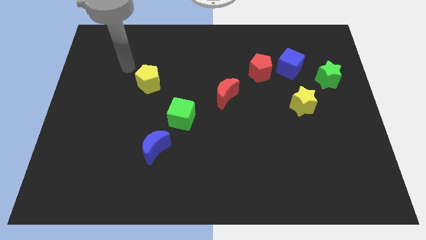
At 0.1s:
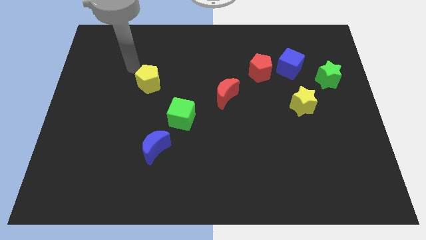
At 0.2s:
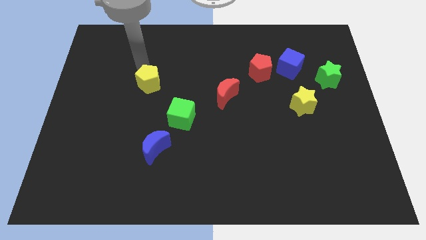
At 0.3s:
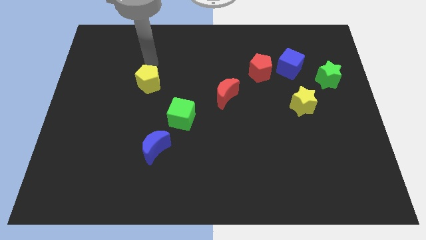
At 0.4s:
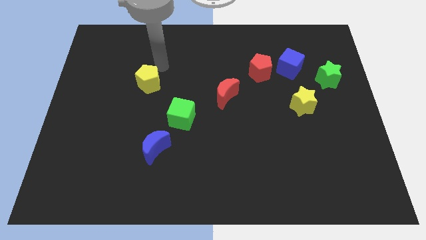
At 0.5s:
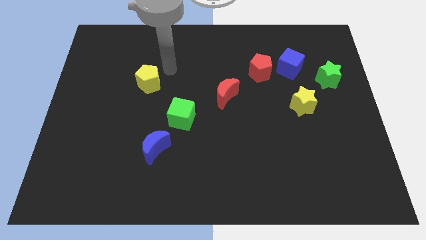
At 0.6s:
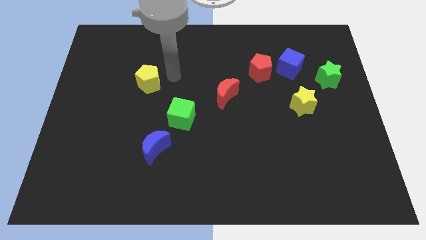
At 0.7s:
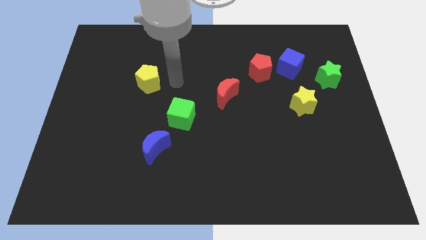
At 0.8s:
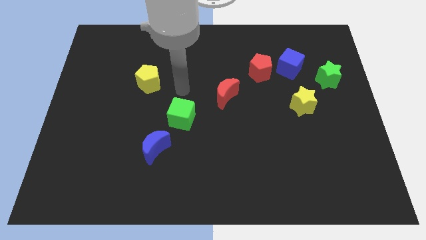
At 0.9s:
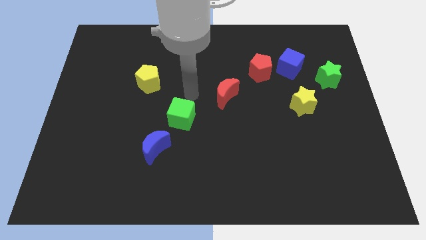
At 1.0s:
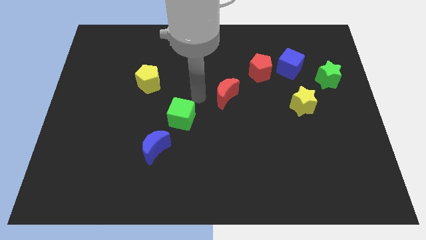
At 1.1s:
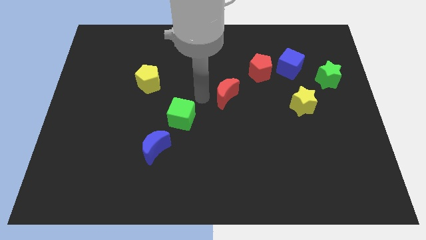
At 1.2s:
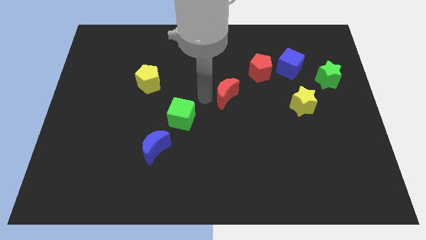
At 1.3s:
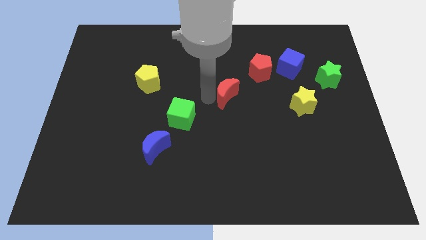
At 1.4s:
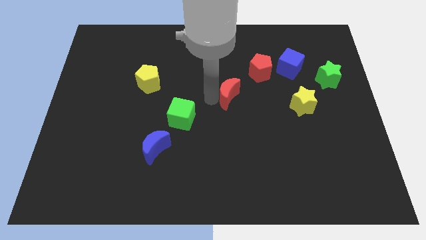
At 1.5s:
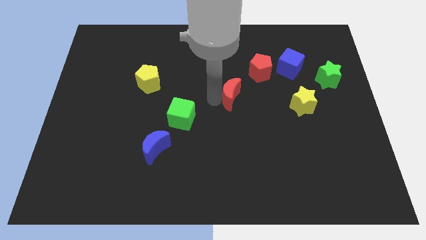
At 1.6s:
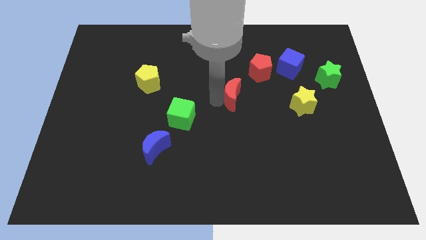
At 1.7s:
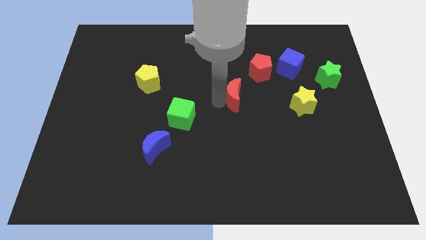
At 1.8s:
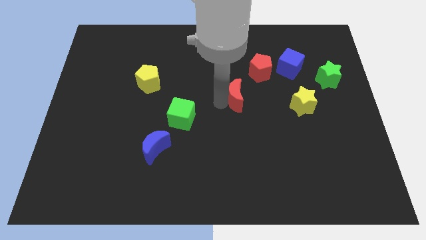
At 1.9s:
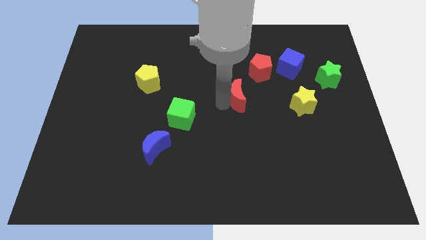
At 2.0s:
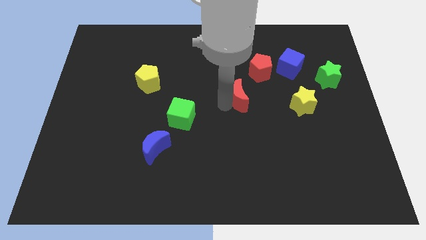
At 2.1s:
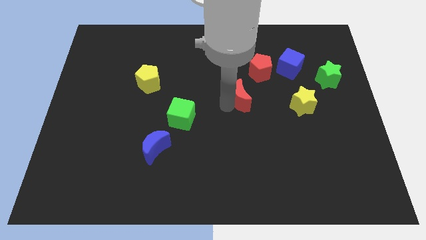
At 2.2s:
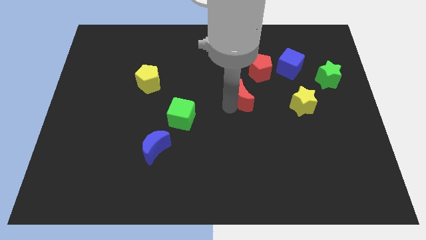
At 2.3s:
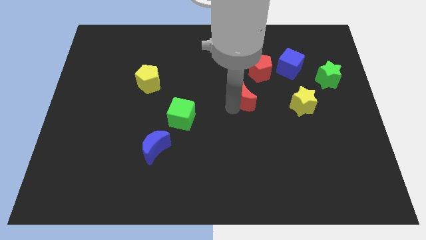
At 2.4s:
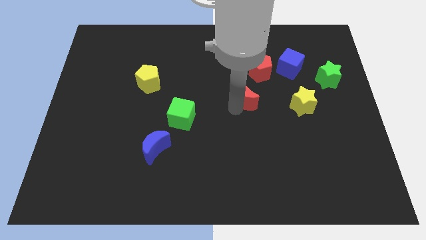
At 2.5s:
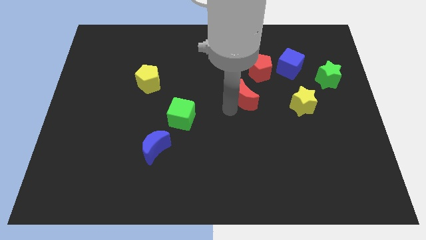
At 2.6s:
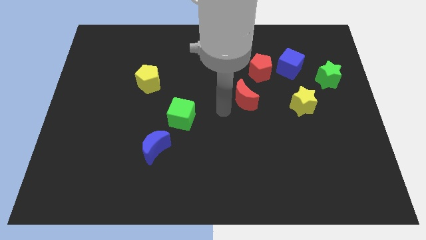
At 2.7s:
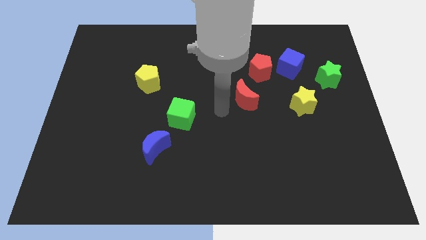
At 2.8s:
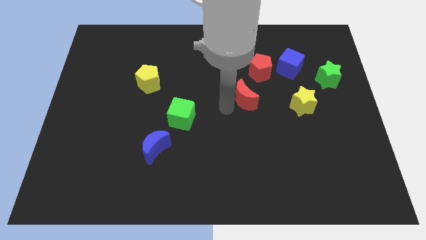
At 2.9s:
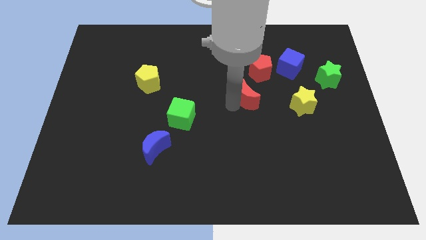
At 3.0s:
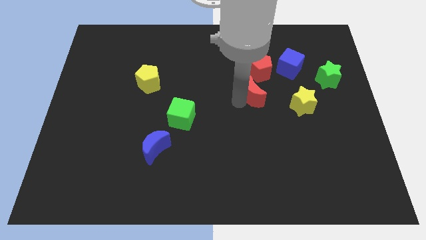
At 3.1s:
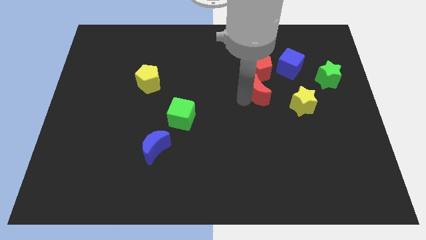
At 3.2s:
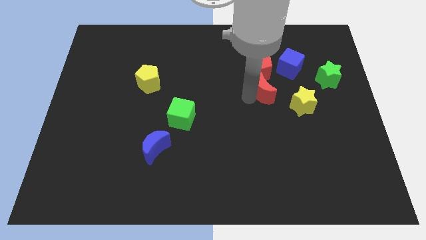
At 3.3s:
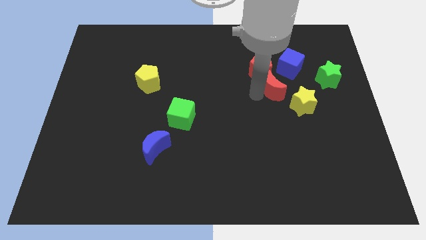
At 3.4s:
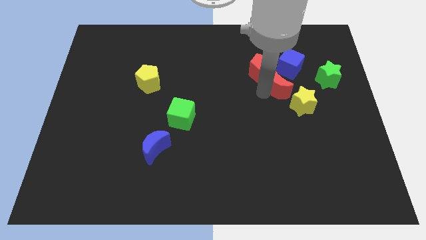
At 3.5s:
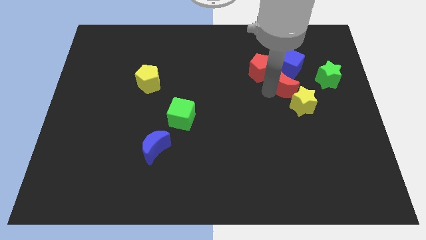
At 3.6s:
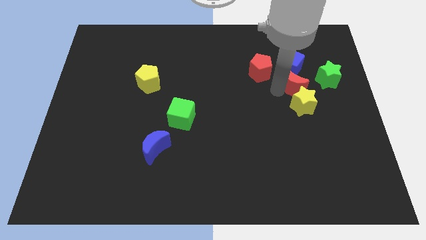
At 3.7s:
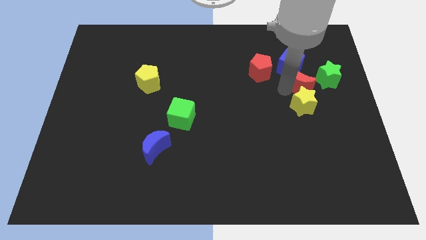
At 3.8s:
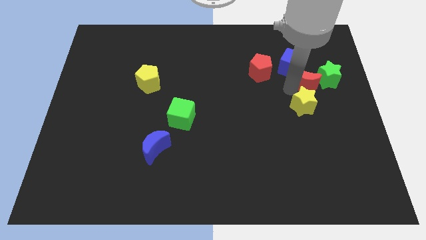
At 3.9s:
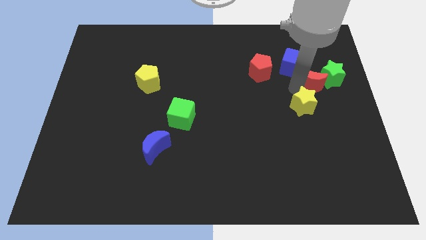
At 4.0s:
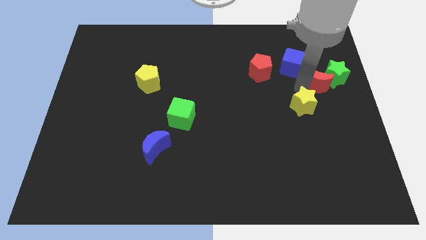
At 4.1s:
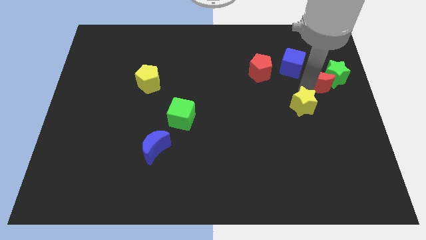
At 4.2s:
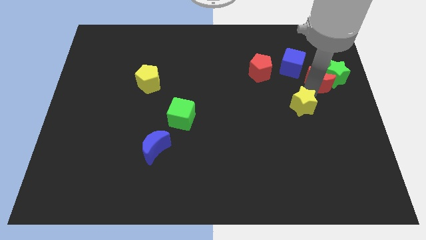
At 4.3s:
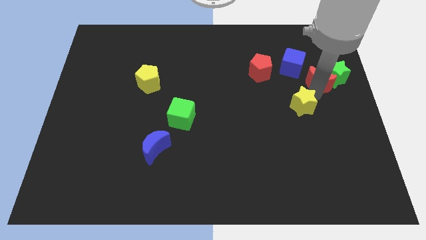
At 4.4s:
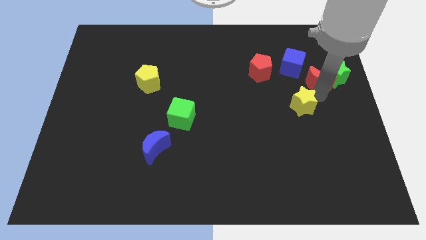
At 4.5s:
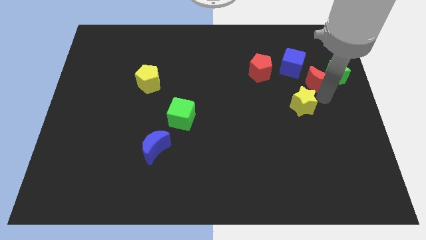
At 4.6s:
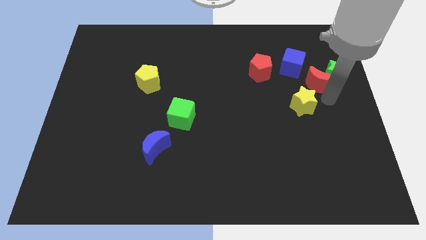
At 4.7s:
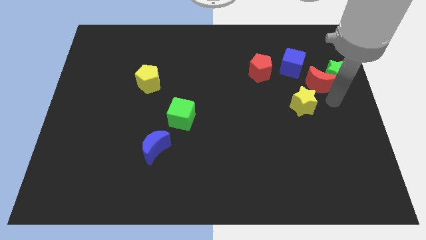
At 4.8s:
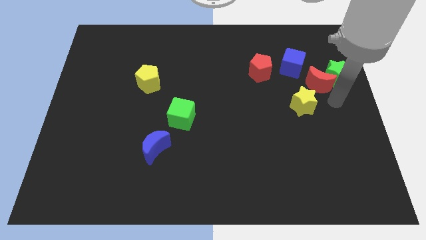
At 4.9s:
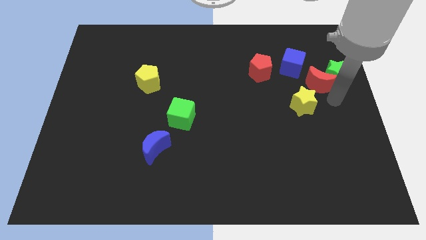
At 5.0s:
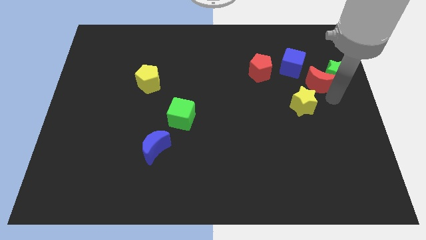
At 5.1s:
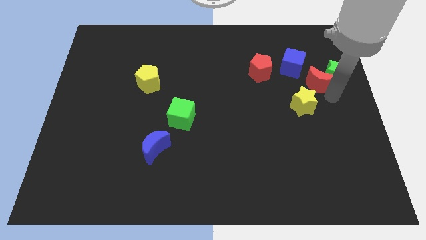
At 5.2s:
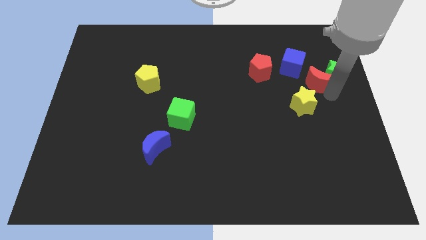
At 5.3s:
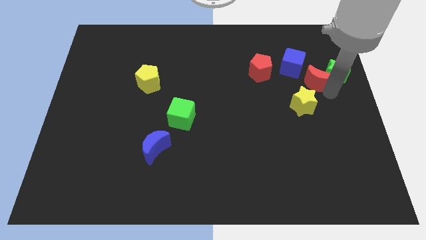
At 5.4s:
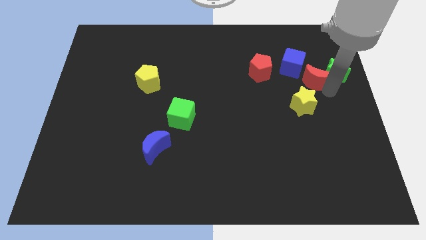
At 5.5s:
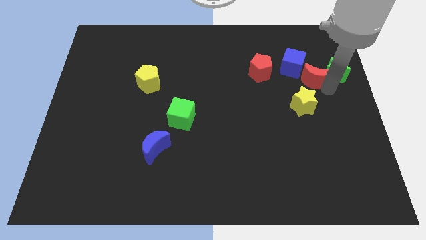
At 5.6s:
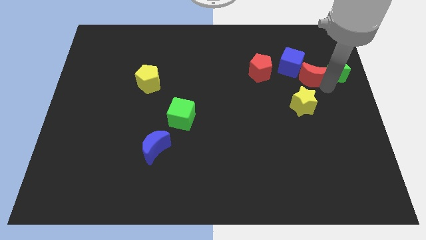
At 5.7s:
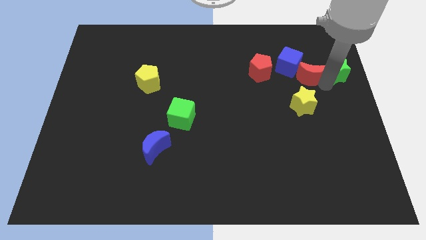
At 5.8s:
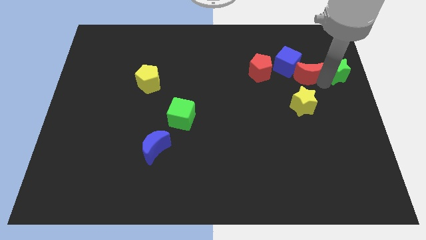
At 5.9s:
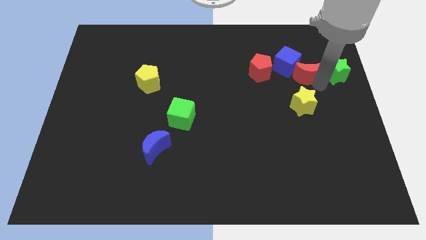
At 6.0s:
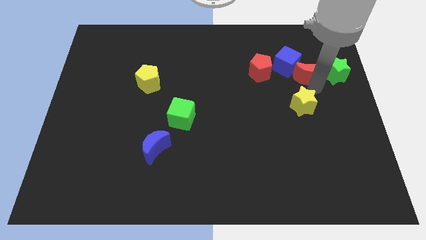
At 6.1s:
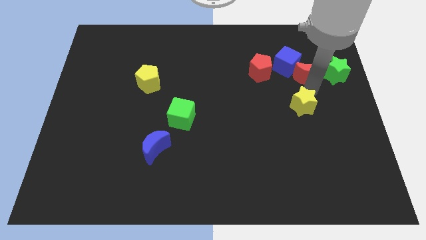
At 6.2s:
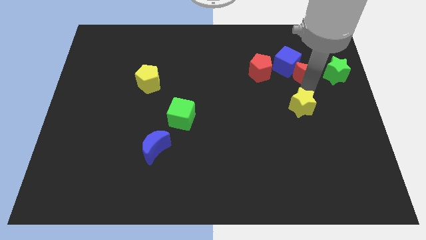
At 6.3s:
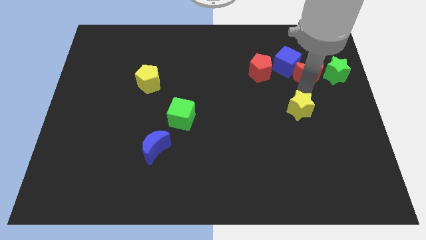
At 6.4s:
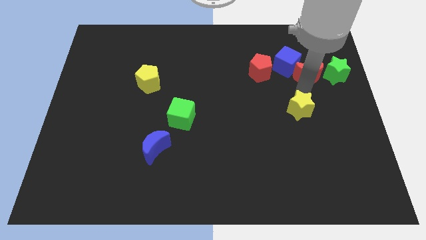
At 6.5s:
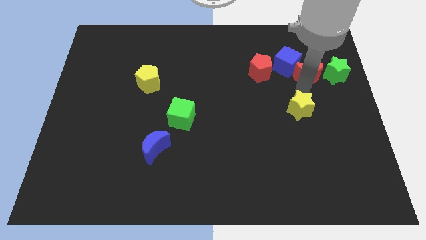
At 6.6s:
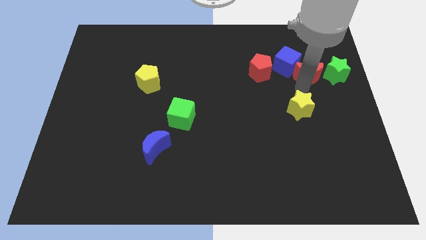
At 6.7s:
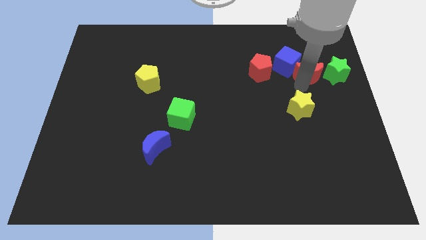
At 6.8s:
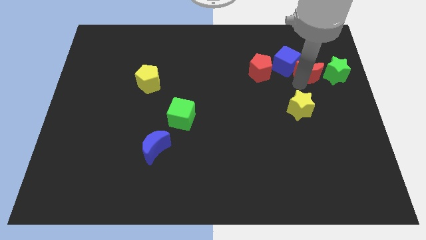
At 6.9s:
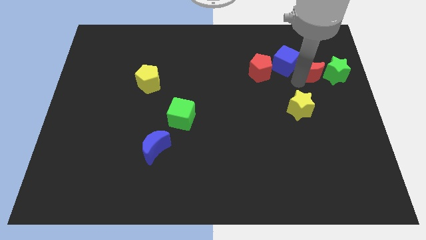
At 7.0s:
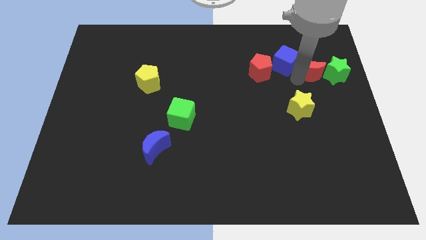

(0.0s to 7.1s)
push the red moon to the top left of the green star

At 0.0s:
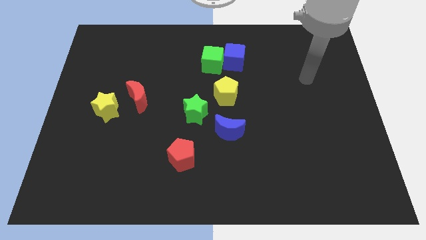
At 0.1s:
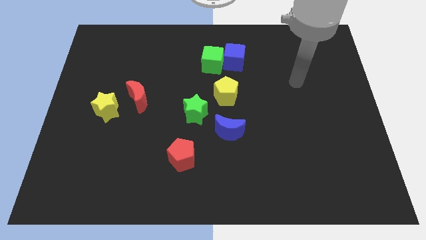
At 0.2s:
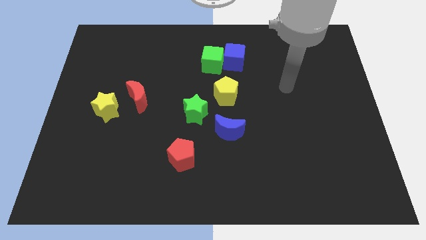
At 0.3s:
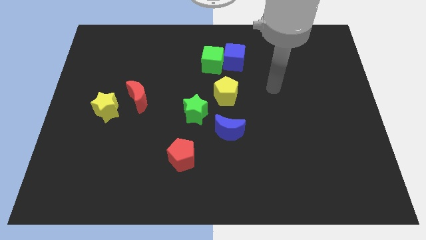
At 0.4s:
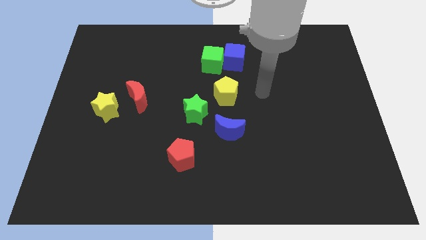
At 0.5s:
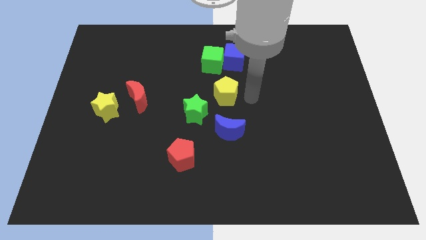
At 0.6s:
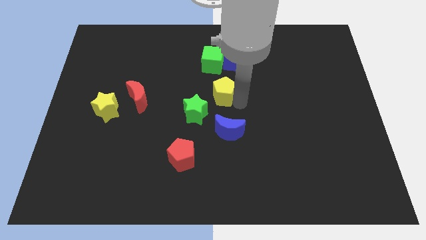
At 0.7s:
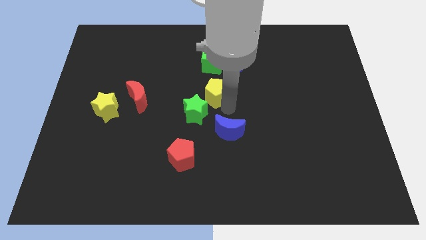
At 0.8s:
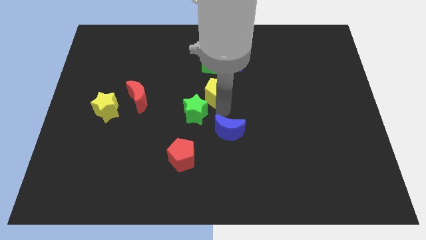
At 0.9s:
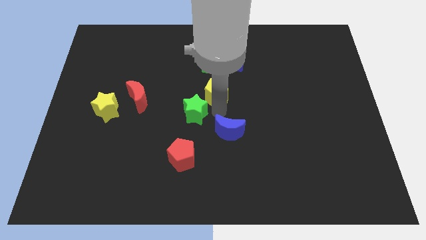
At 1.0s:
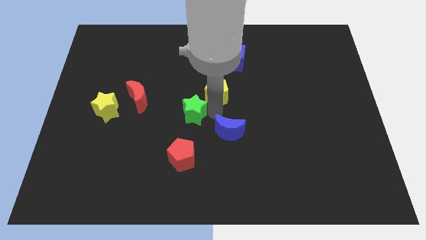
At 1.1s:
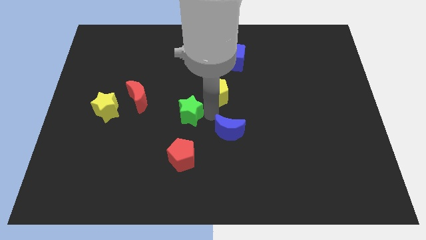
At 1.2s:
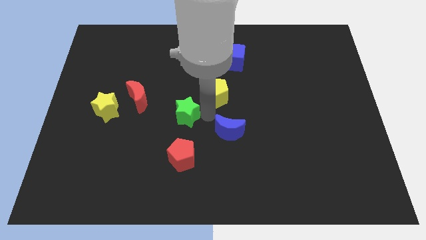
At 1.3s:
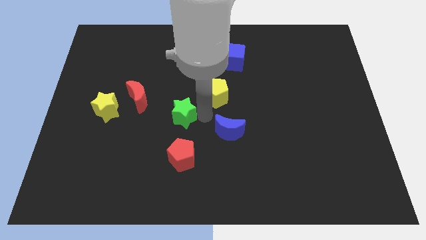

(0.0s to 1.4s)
push the green star to the bottom right side of the red moon
